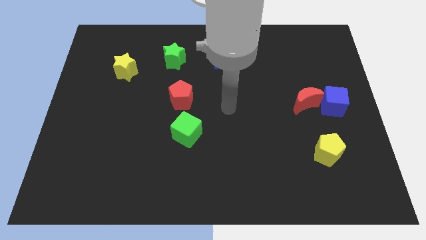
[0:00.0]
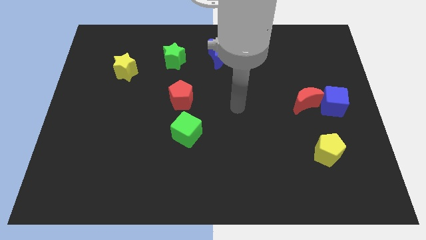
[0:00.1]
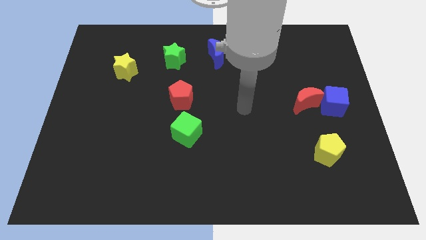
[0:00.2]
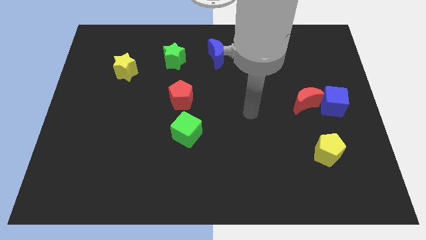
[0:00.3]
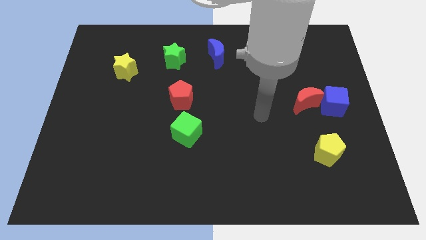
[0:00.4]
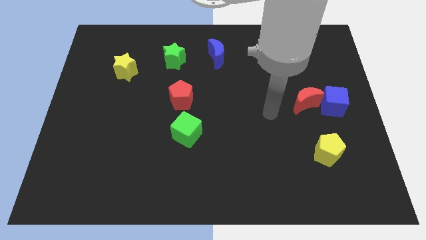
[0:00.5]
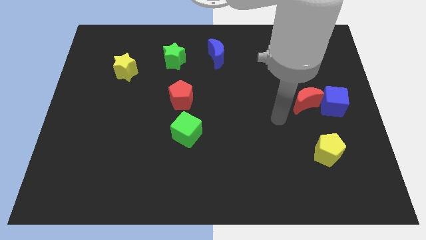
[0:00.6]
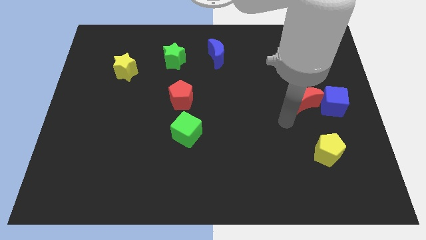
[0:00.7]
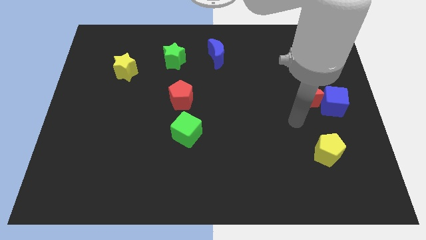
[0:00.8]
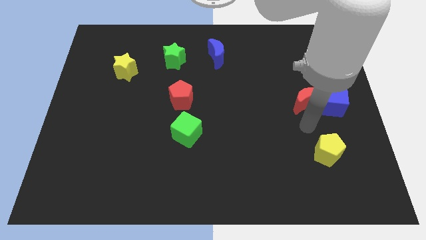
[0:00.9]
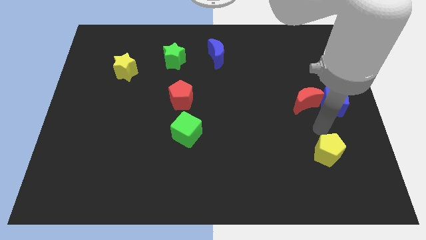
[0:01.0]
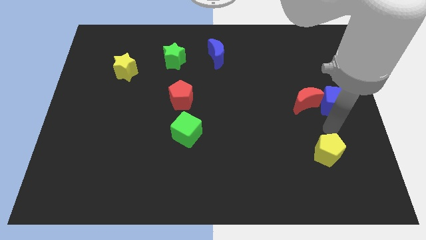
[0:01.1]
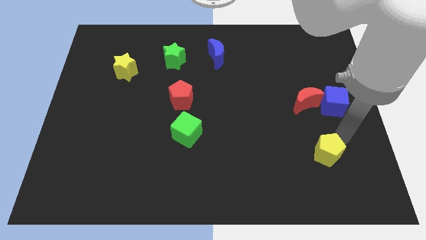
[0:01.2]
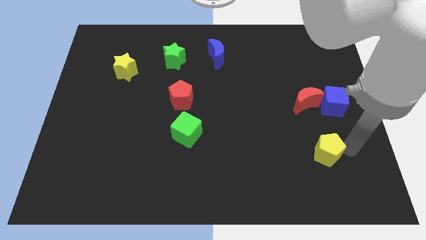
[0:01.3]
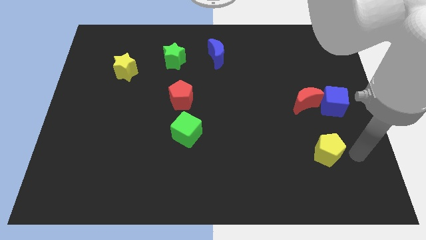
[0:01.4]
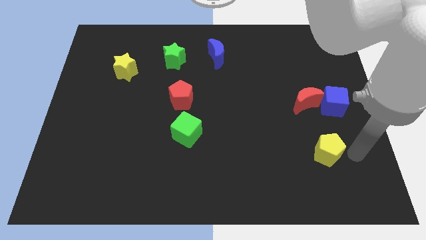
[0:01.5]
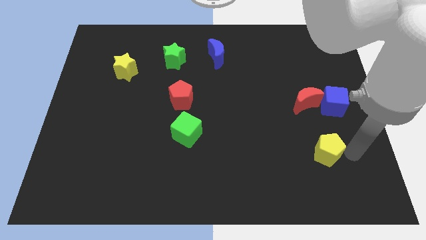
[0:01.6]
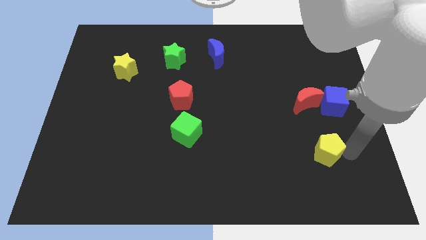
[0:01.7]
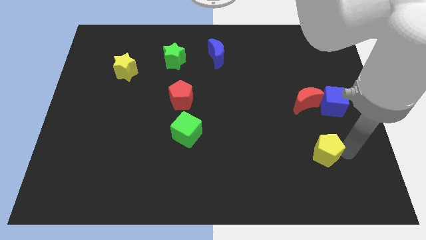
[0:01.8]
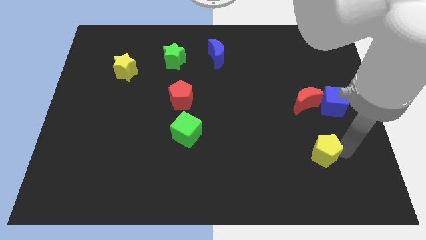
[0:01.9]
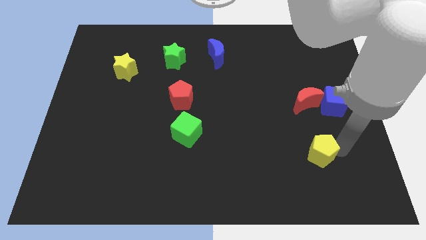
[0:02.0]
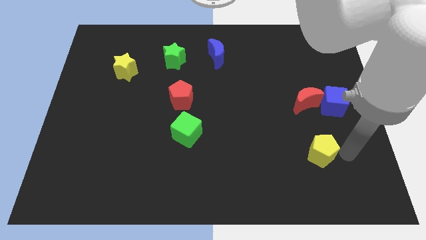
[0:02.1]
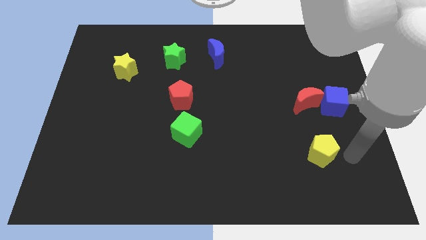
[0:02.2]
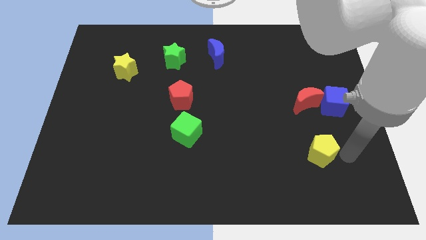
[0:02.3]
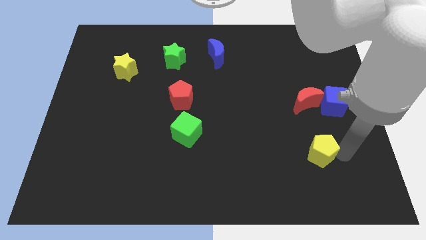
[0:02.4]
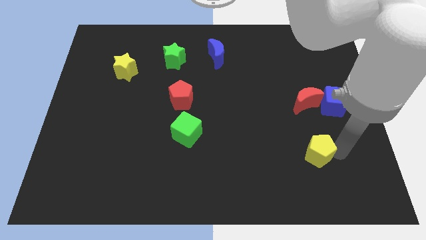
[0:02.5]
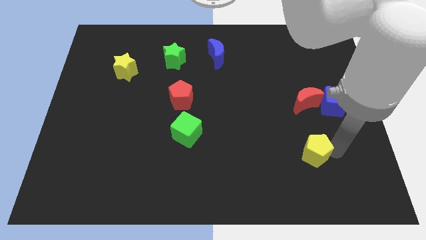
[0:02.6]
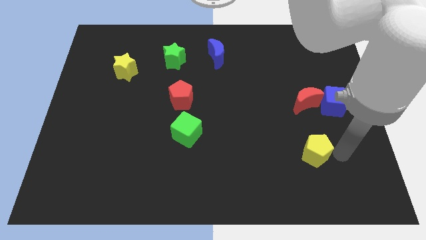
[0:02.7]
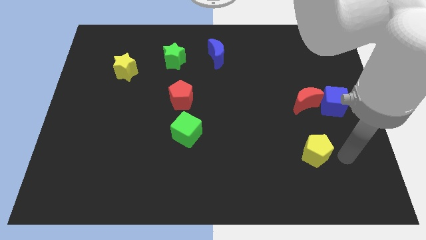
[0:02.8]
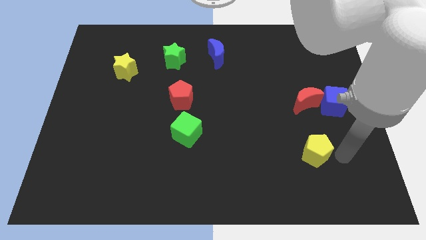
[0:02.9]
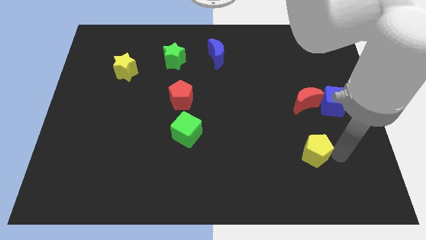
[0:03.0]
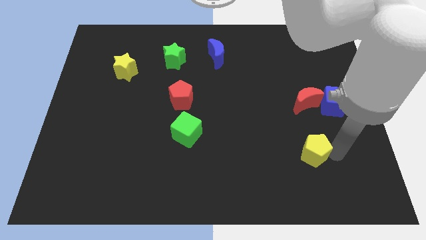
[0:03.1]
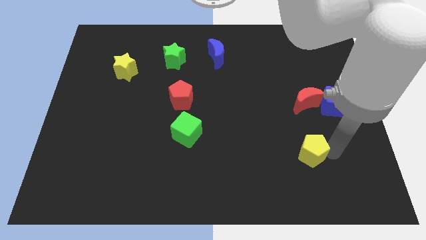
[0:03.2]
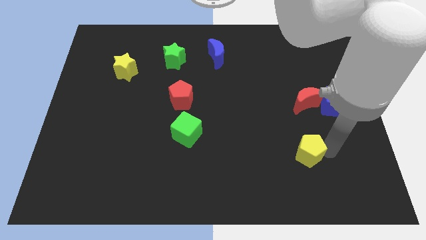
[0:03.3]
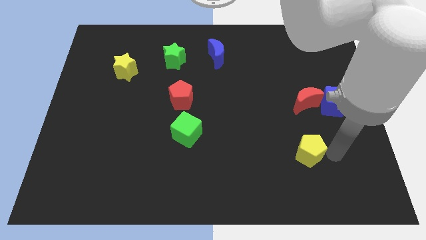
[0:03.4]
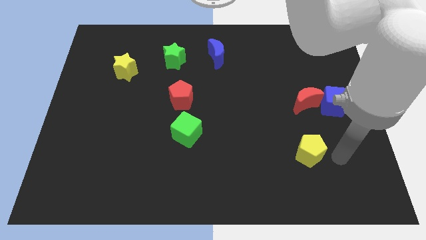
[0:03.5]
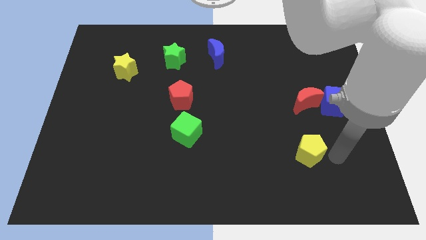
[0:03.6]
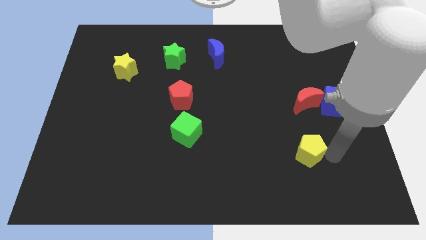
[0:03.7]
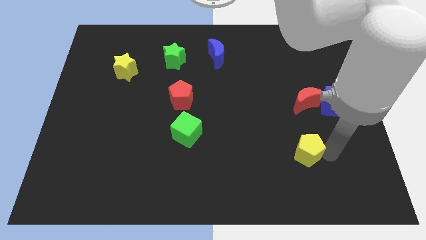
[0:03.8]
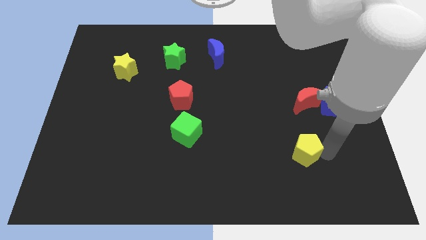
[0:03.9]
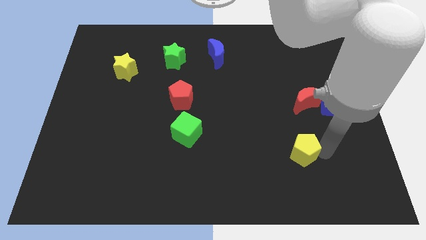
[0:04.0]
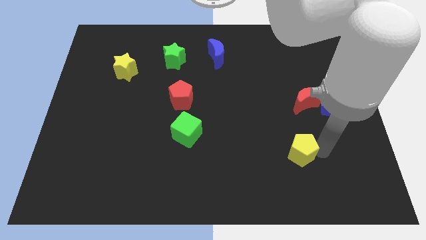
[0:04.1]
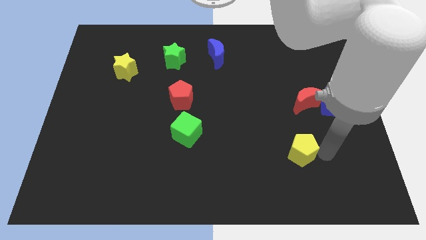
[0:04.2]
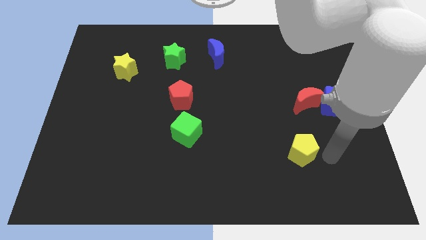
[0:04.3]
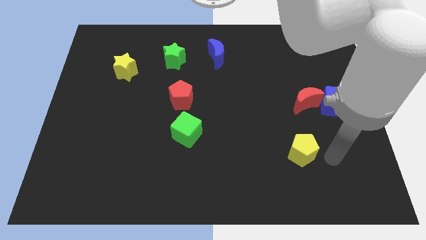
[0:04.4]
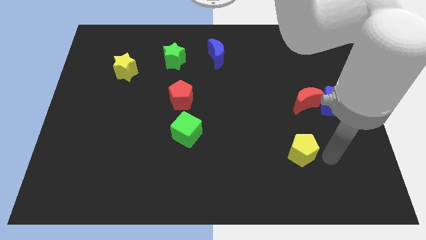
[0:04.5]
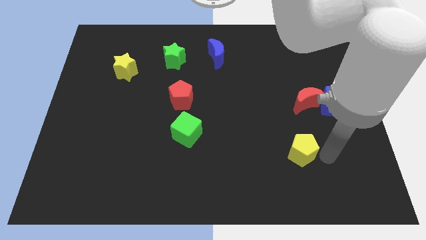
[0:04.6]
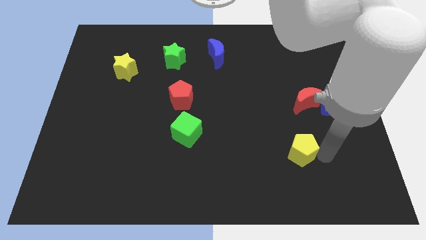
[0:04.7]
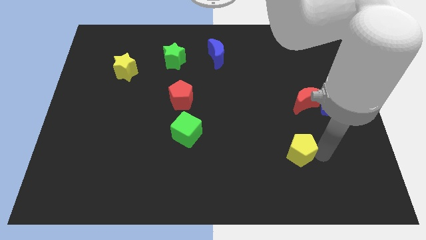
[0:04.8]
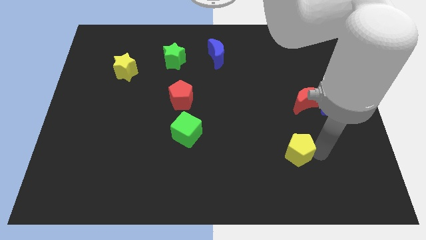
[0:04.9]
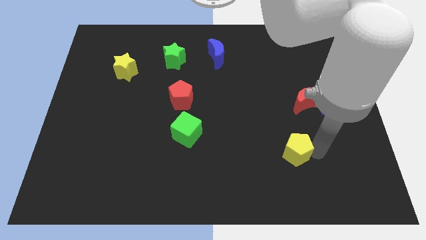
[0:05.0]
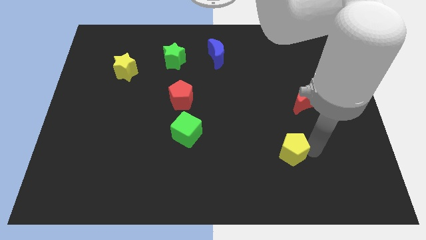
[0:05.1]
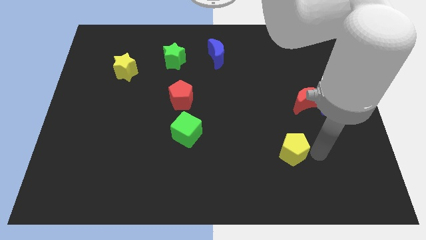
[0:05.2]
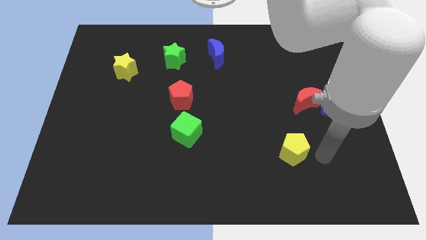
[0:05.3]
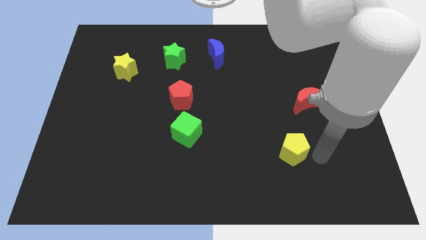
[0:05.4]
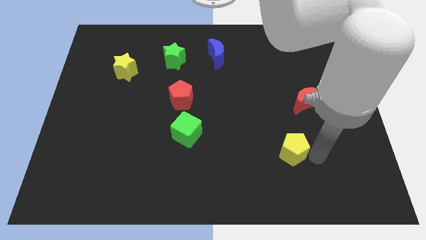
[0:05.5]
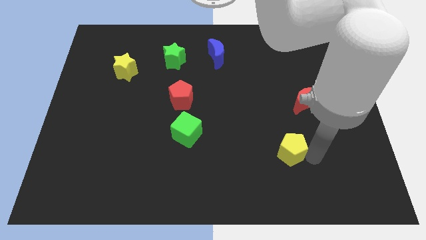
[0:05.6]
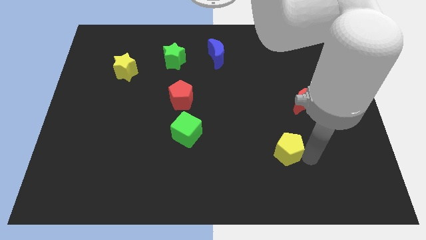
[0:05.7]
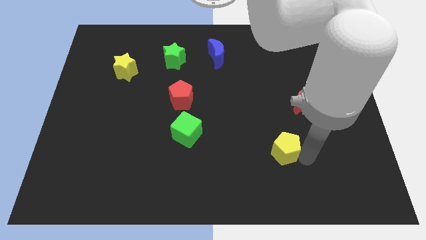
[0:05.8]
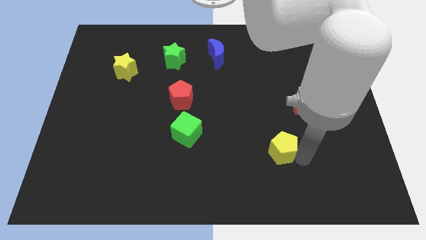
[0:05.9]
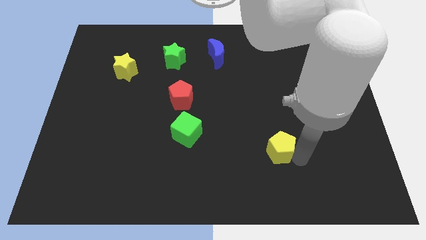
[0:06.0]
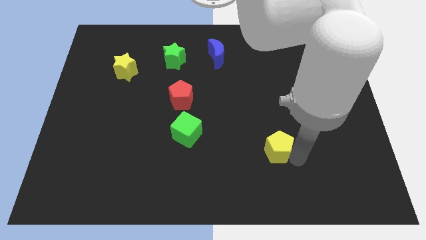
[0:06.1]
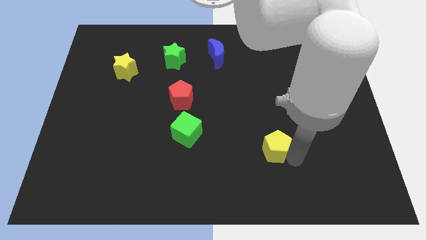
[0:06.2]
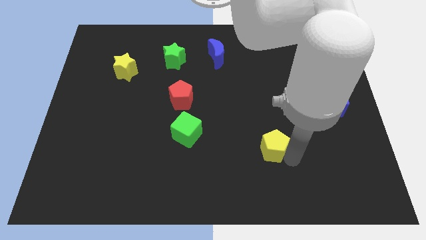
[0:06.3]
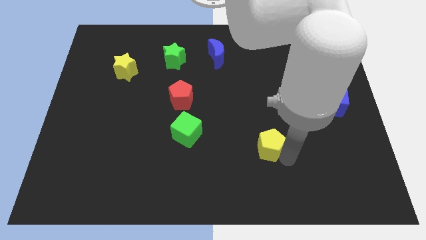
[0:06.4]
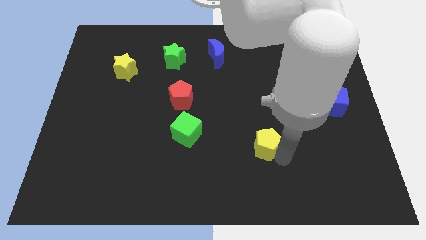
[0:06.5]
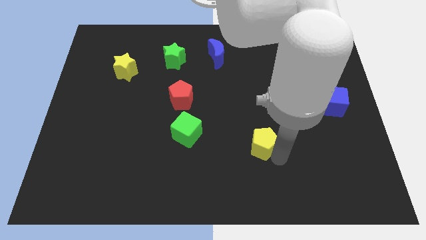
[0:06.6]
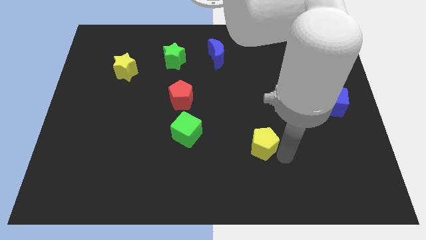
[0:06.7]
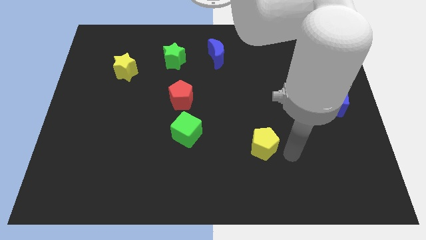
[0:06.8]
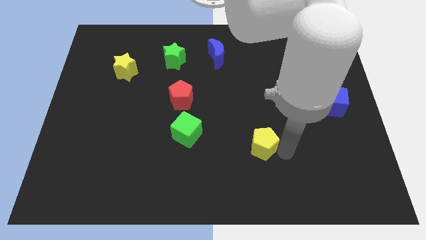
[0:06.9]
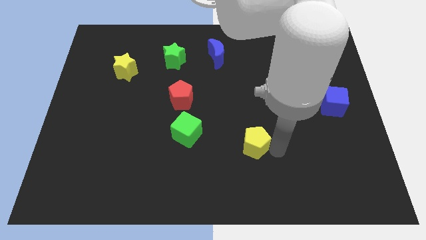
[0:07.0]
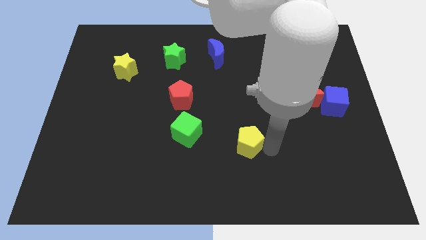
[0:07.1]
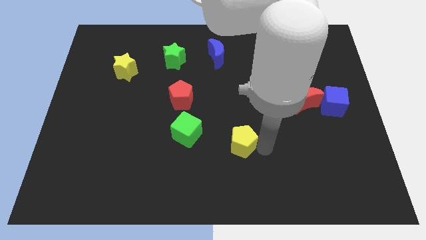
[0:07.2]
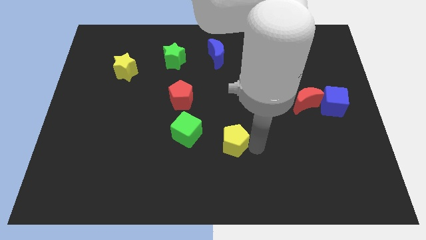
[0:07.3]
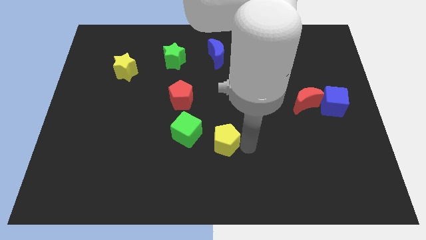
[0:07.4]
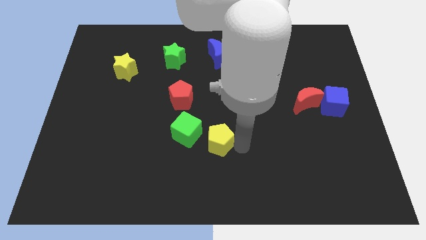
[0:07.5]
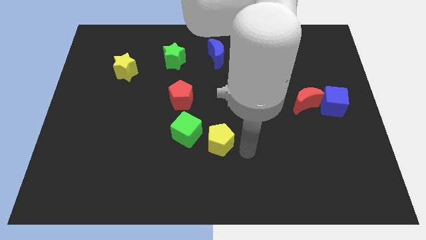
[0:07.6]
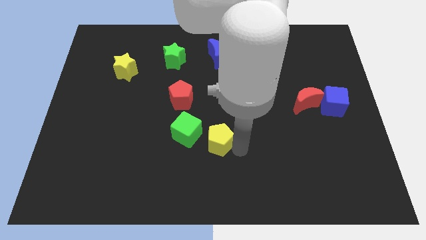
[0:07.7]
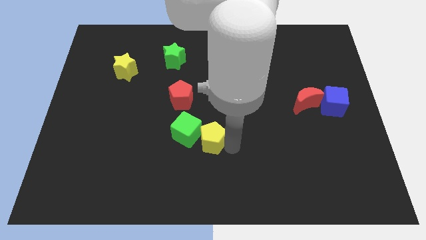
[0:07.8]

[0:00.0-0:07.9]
move the yellow pentagon close to the green cube
